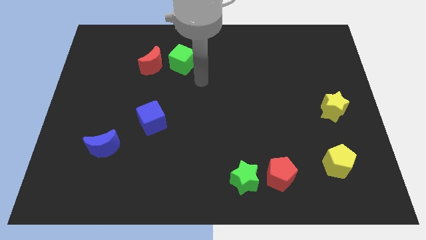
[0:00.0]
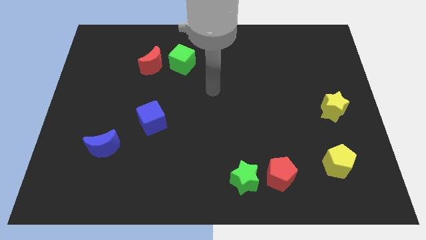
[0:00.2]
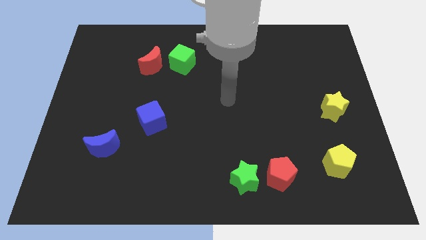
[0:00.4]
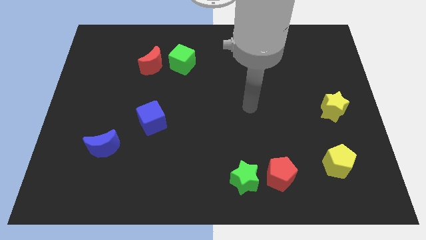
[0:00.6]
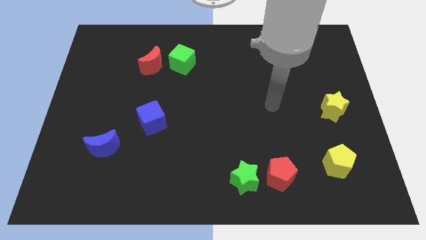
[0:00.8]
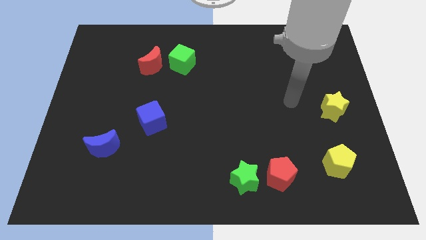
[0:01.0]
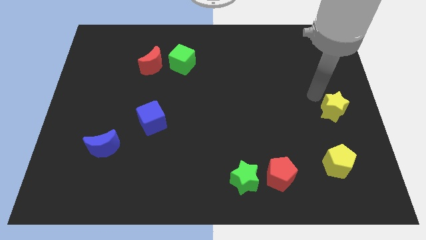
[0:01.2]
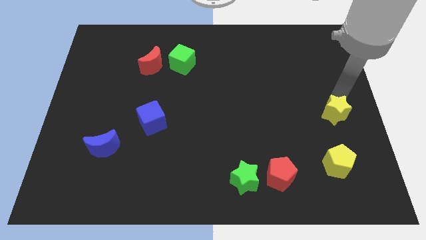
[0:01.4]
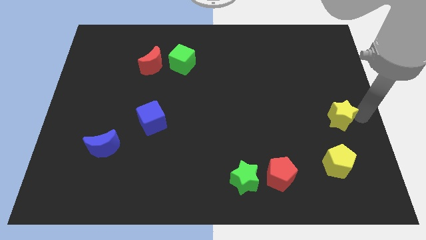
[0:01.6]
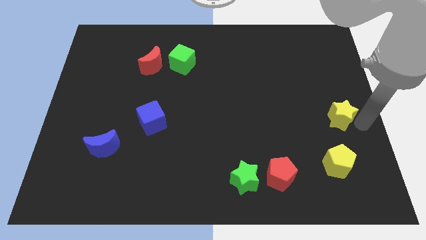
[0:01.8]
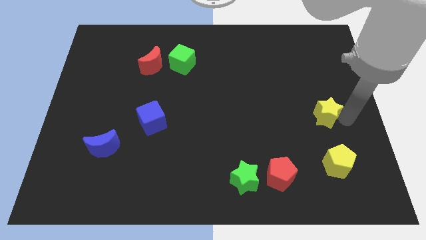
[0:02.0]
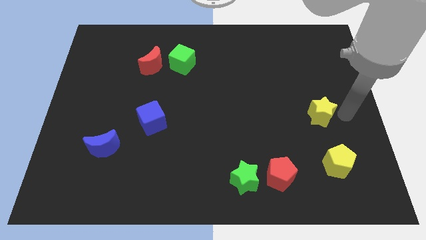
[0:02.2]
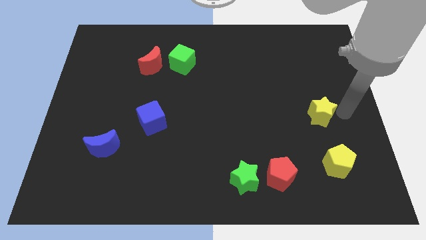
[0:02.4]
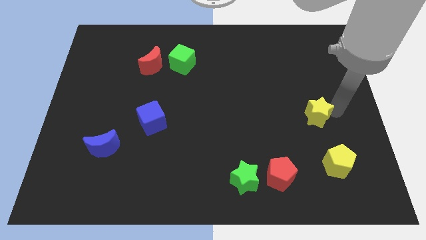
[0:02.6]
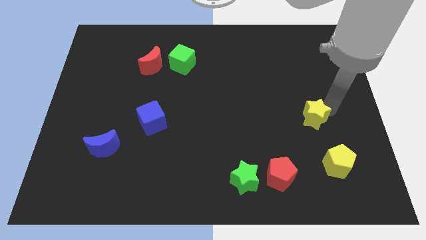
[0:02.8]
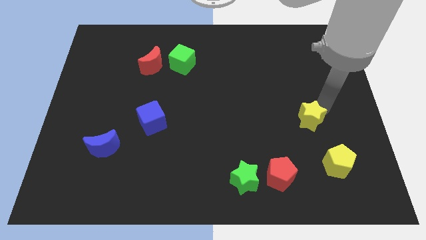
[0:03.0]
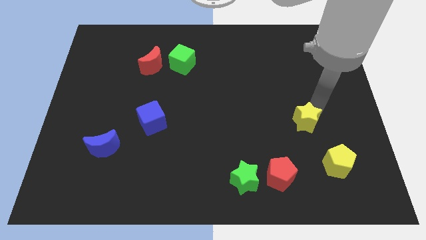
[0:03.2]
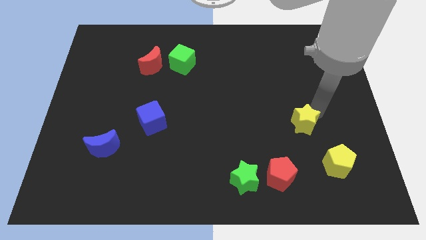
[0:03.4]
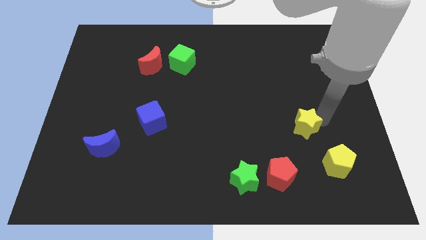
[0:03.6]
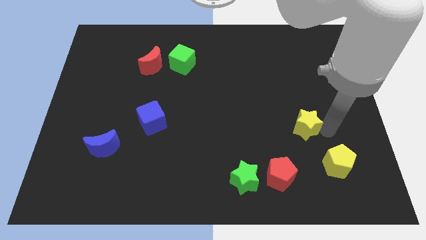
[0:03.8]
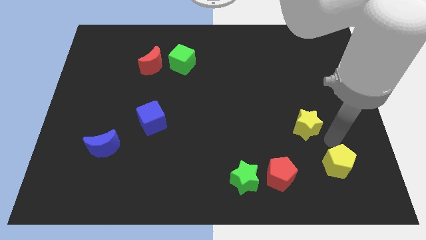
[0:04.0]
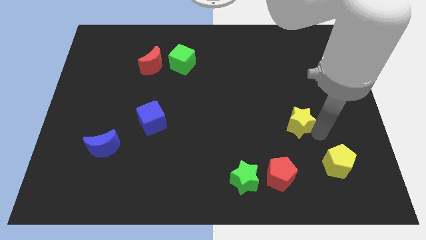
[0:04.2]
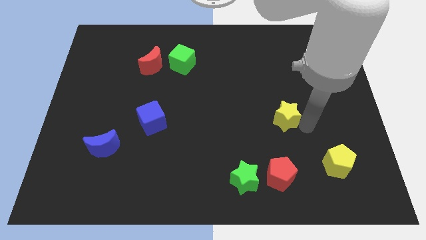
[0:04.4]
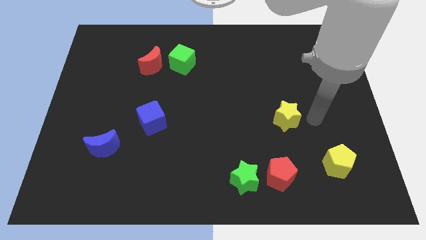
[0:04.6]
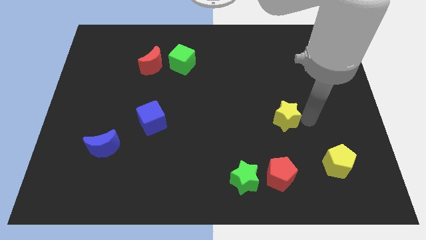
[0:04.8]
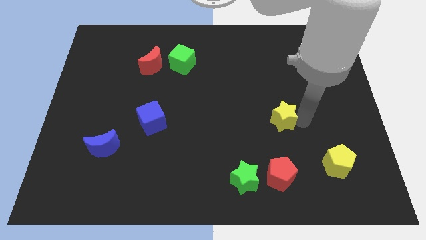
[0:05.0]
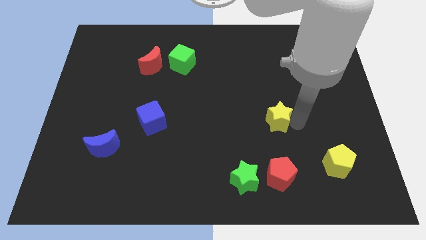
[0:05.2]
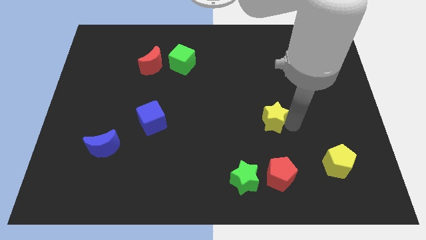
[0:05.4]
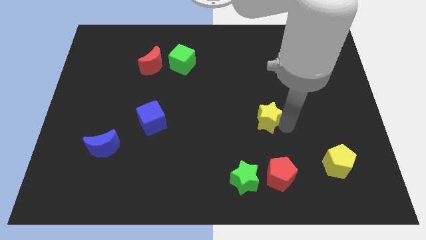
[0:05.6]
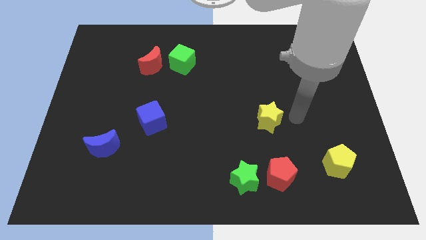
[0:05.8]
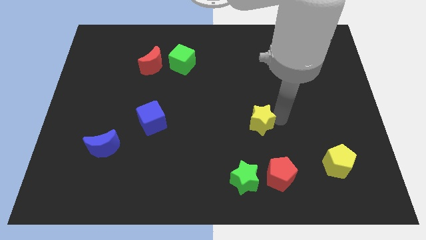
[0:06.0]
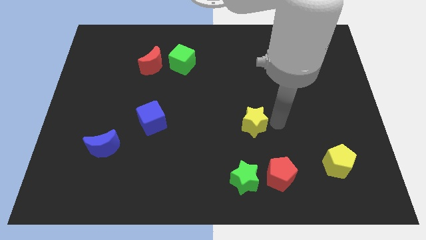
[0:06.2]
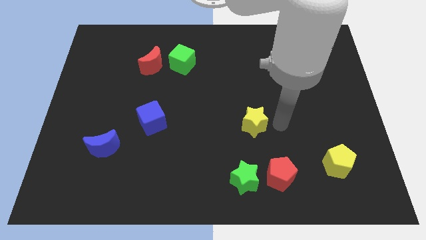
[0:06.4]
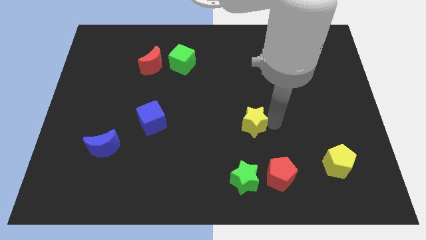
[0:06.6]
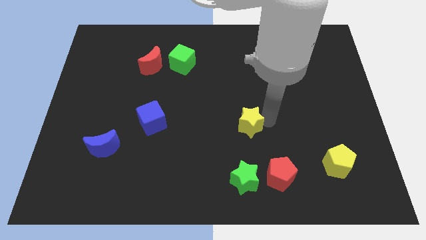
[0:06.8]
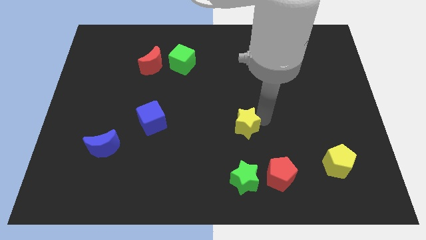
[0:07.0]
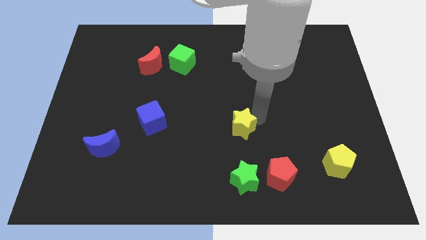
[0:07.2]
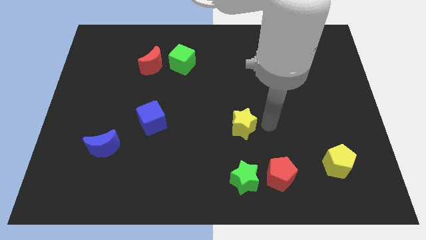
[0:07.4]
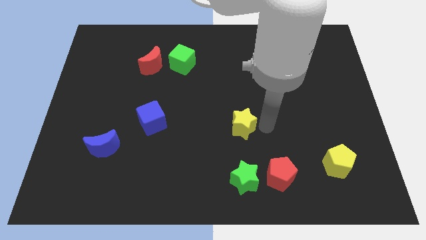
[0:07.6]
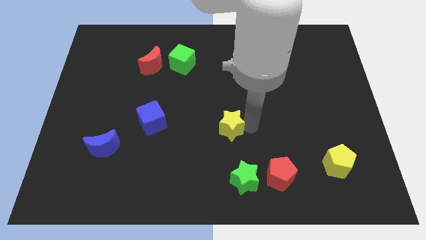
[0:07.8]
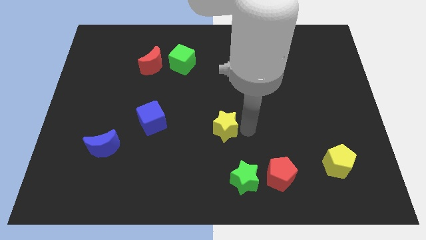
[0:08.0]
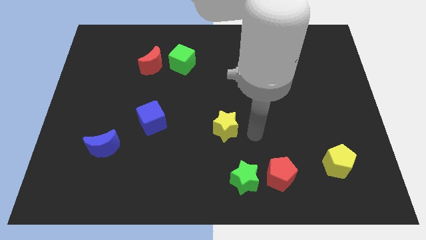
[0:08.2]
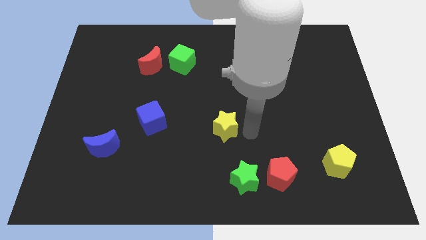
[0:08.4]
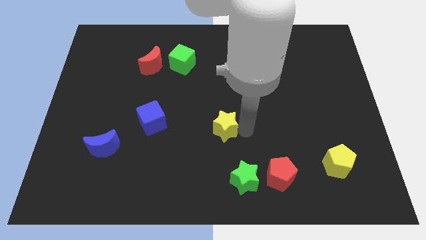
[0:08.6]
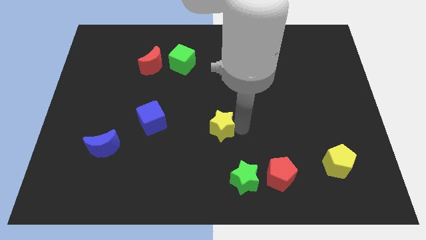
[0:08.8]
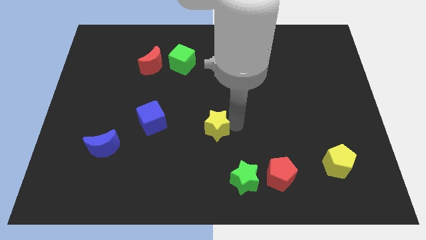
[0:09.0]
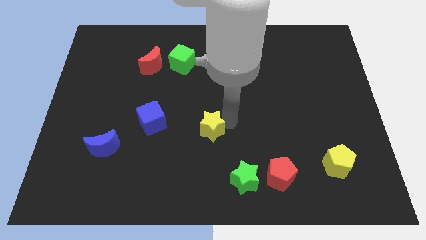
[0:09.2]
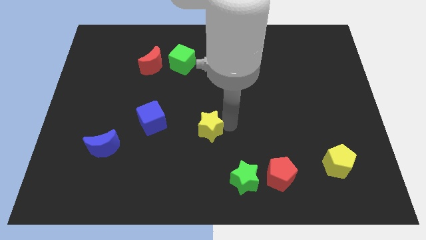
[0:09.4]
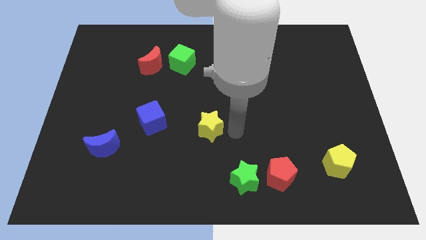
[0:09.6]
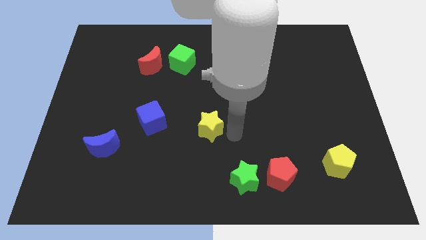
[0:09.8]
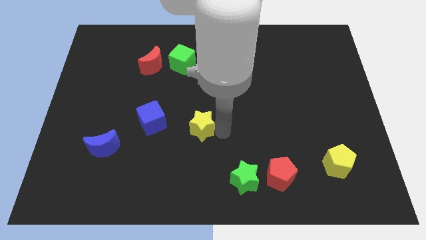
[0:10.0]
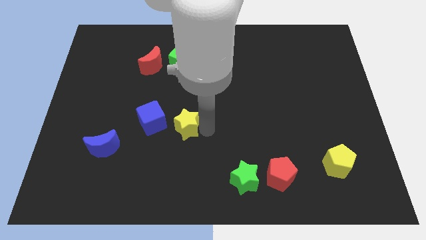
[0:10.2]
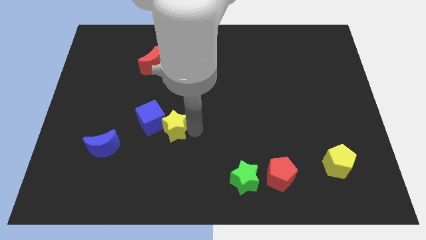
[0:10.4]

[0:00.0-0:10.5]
slide the yellow star next to the blue cube

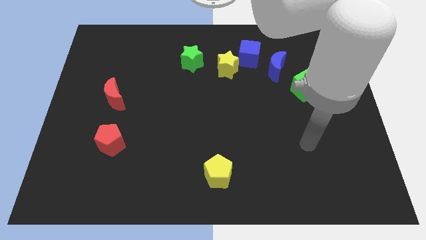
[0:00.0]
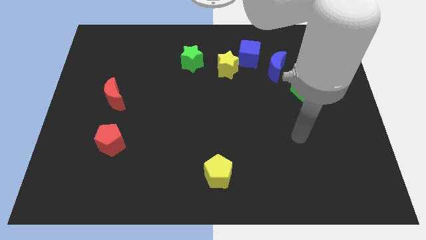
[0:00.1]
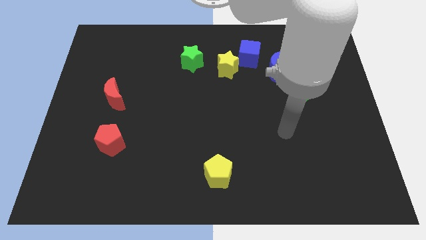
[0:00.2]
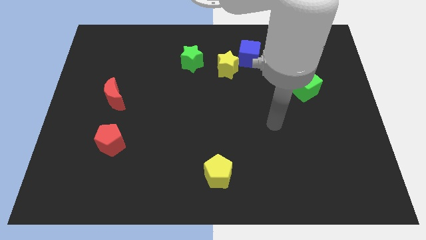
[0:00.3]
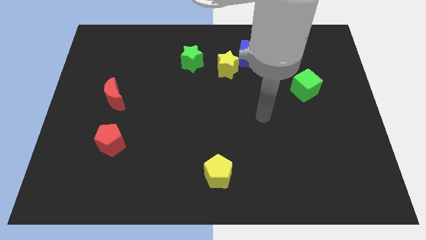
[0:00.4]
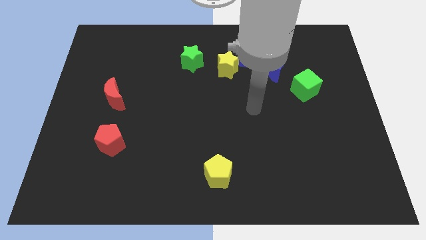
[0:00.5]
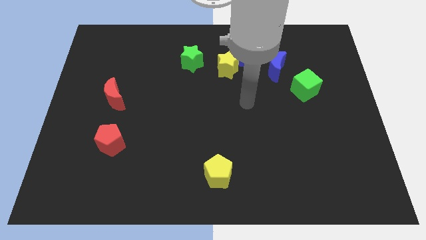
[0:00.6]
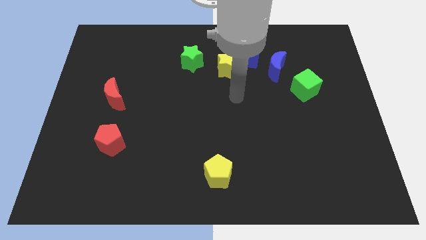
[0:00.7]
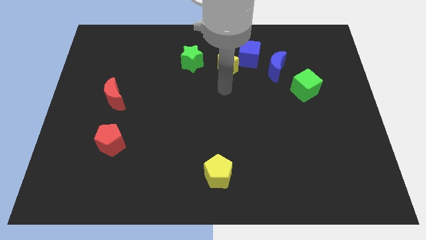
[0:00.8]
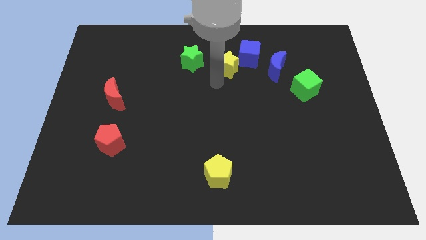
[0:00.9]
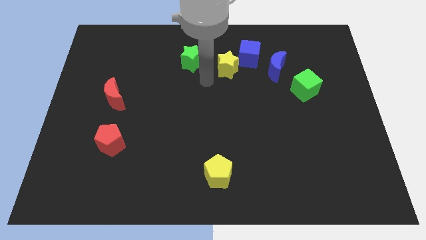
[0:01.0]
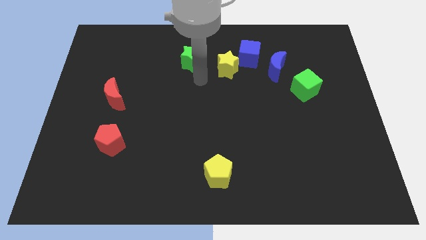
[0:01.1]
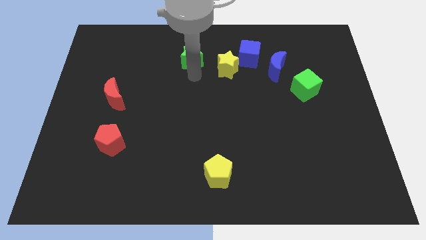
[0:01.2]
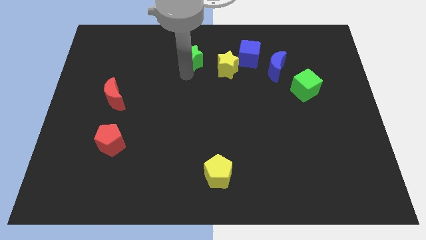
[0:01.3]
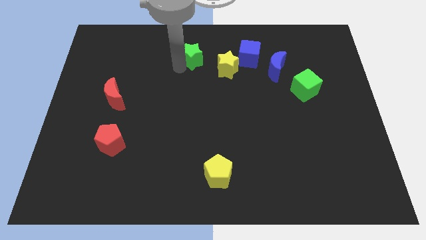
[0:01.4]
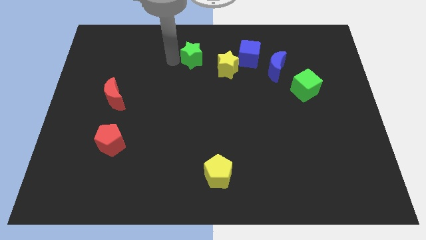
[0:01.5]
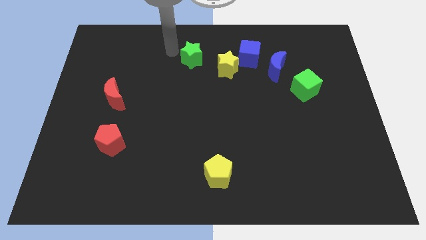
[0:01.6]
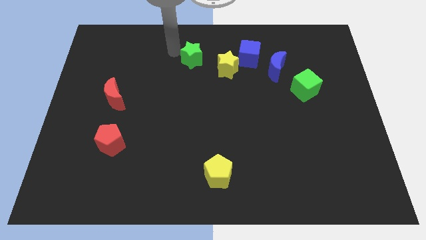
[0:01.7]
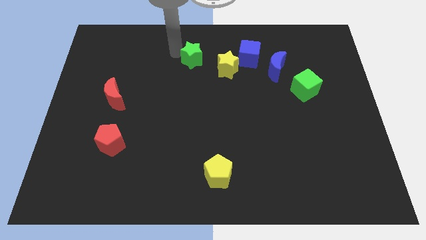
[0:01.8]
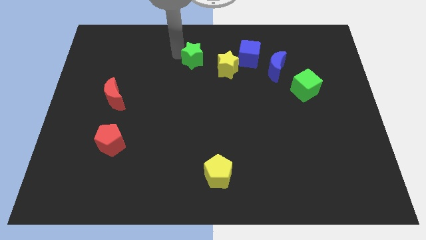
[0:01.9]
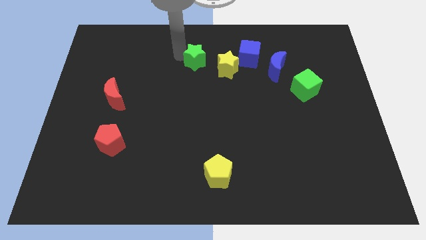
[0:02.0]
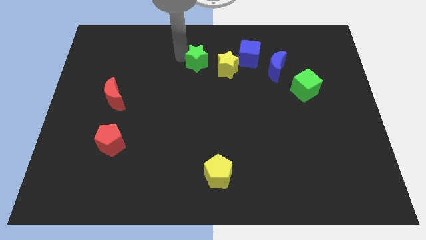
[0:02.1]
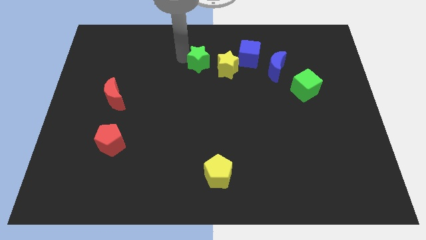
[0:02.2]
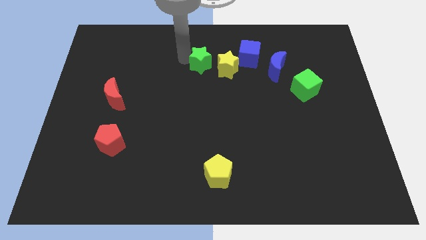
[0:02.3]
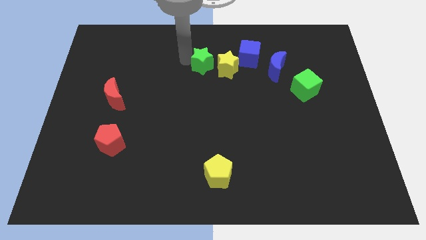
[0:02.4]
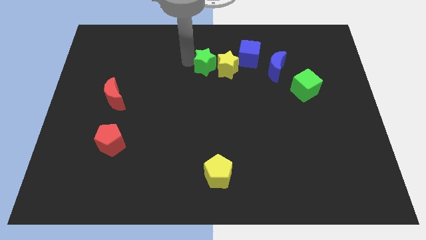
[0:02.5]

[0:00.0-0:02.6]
put the green star close to the yellow star
